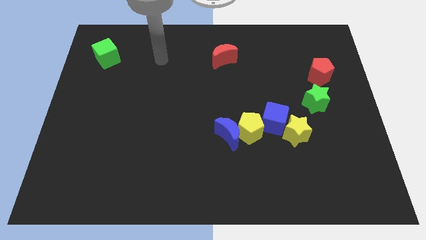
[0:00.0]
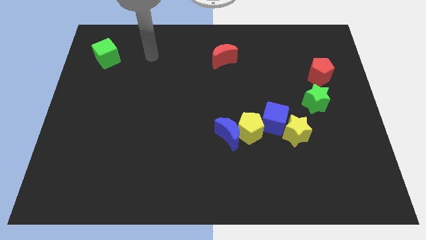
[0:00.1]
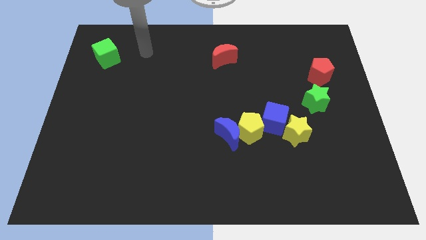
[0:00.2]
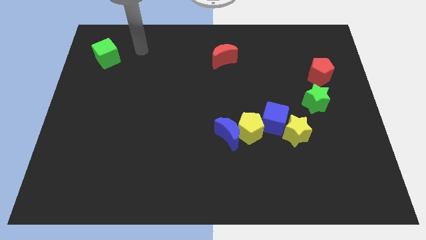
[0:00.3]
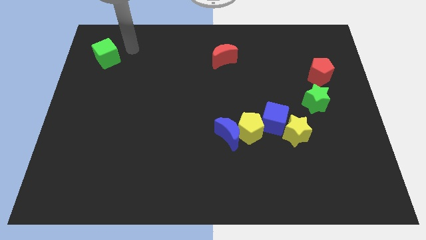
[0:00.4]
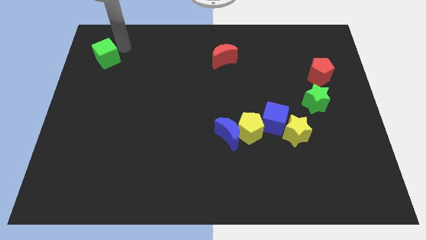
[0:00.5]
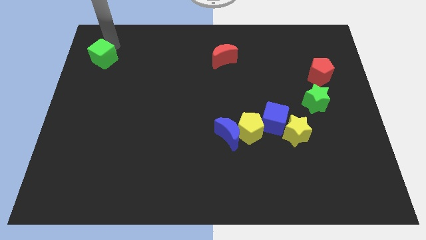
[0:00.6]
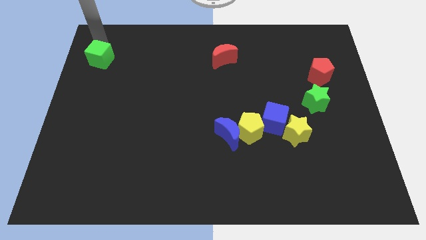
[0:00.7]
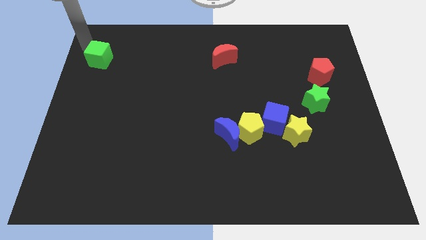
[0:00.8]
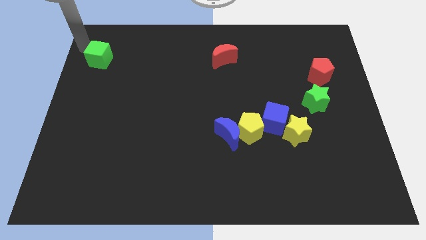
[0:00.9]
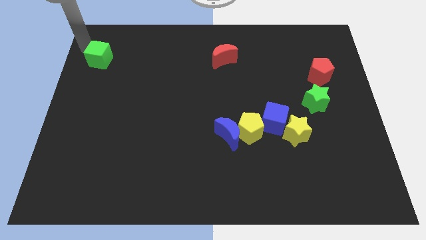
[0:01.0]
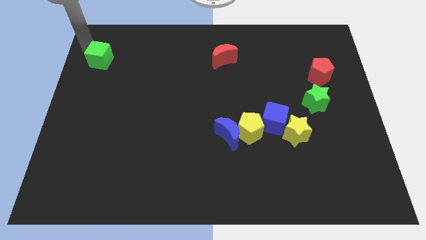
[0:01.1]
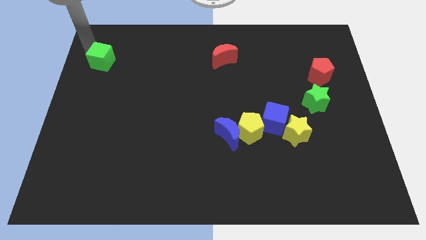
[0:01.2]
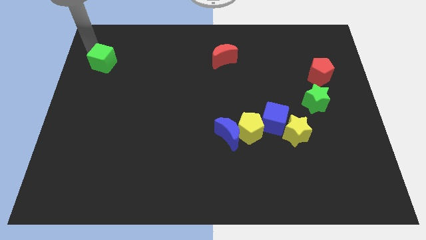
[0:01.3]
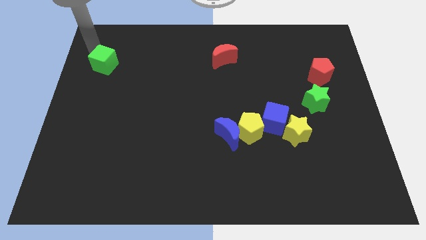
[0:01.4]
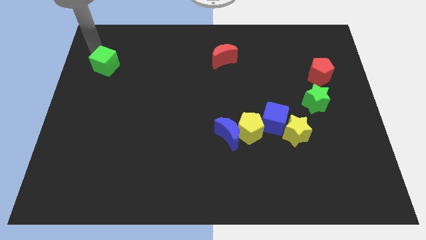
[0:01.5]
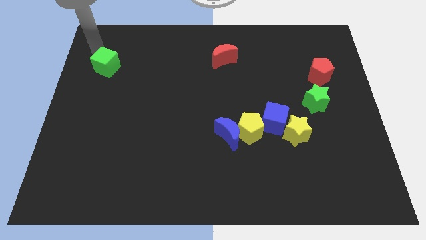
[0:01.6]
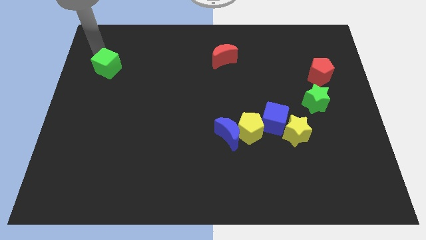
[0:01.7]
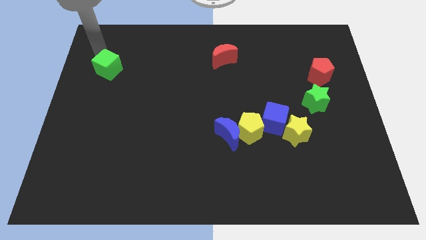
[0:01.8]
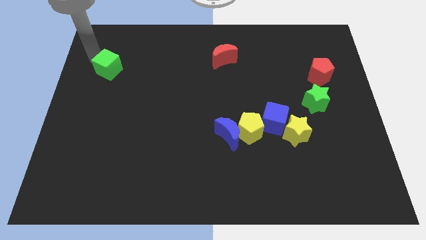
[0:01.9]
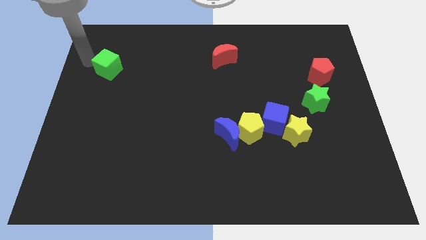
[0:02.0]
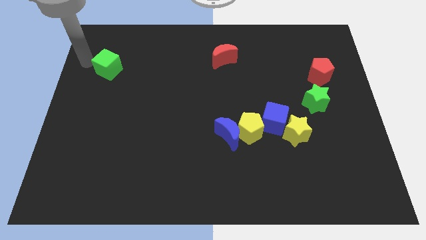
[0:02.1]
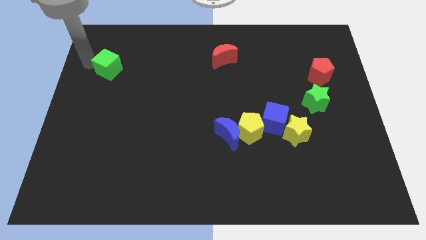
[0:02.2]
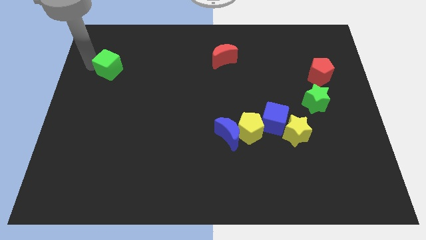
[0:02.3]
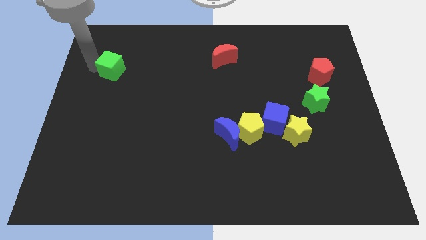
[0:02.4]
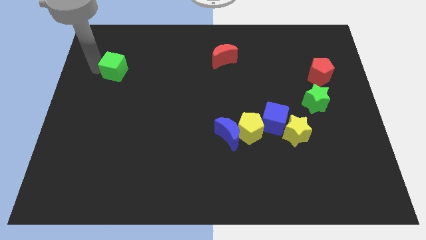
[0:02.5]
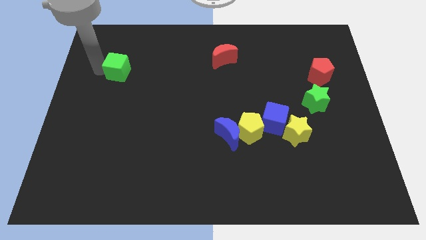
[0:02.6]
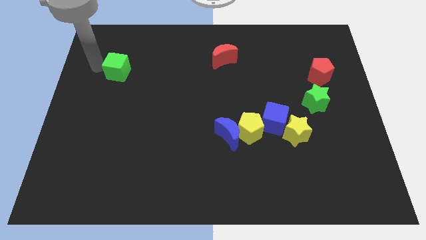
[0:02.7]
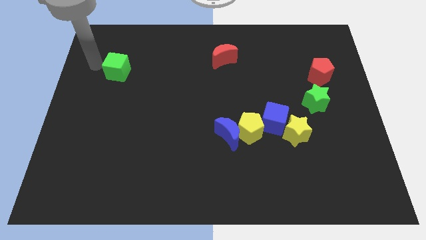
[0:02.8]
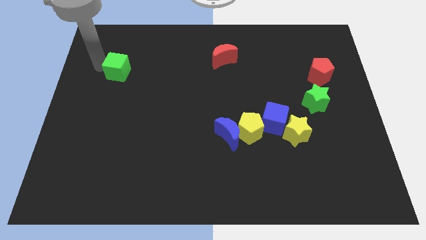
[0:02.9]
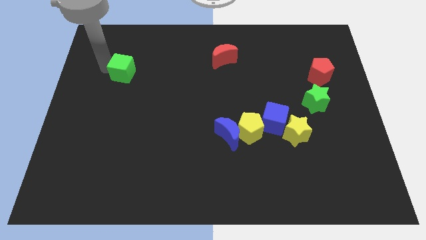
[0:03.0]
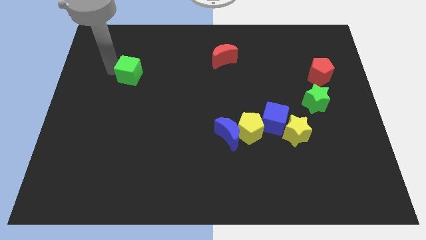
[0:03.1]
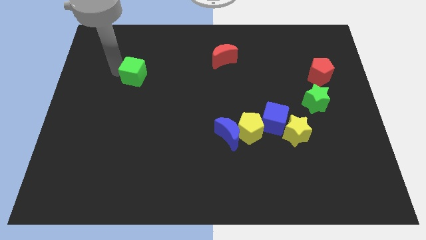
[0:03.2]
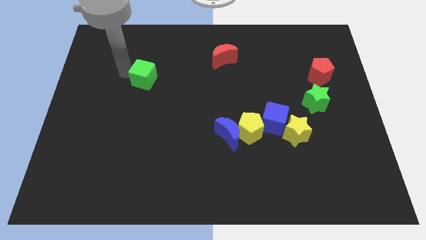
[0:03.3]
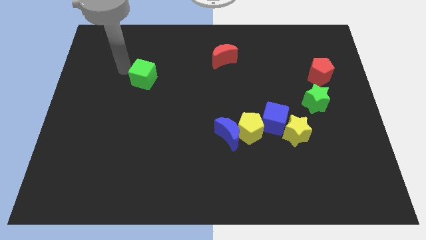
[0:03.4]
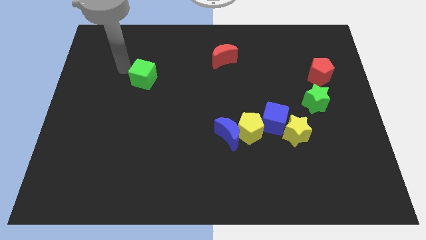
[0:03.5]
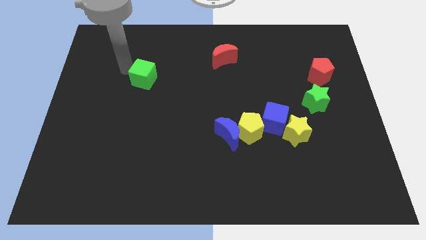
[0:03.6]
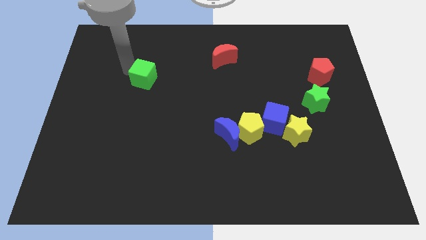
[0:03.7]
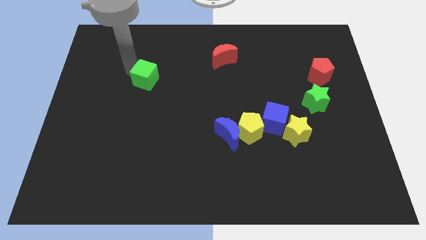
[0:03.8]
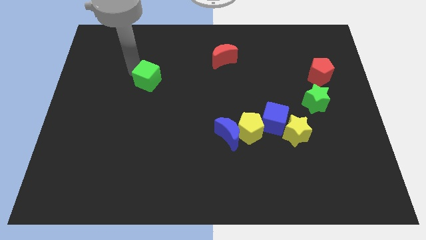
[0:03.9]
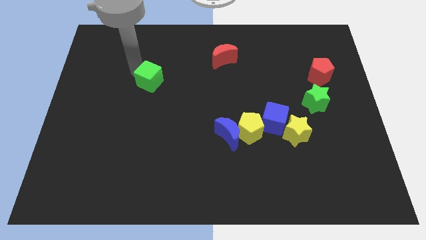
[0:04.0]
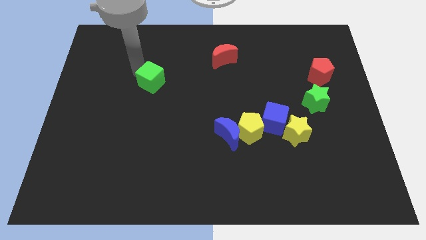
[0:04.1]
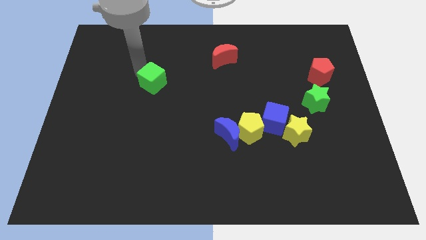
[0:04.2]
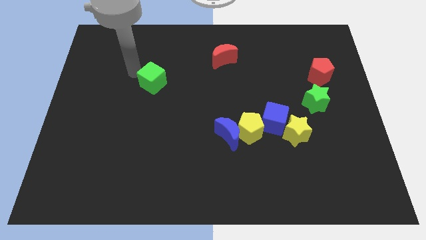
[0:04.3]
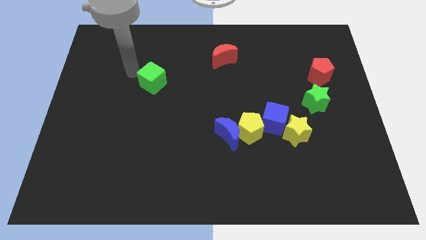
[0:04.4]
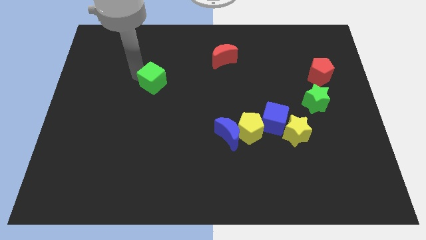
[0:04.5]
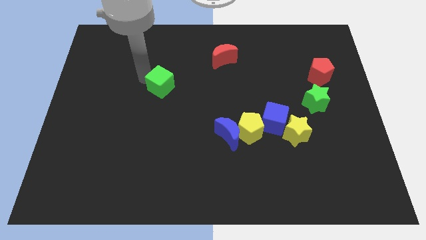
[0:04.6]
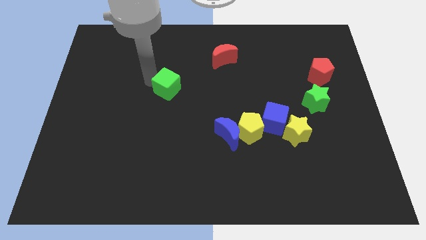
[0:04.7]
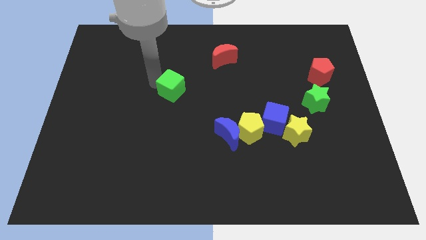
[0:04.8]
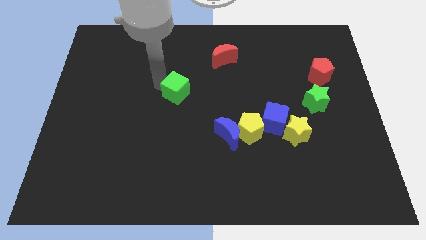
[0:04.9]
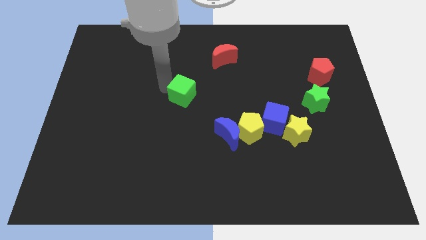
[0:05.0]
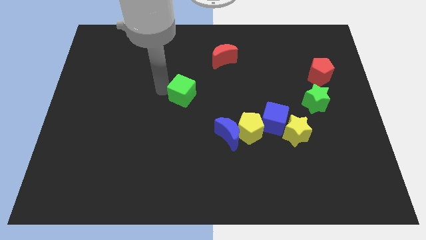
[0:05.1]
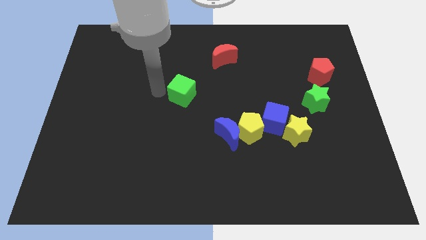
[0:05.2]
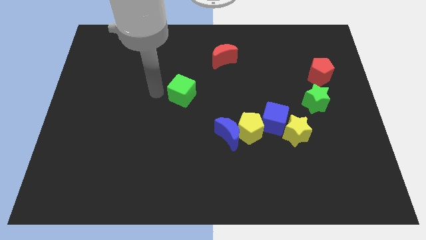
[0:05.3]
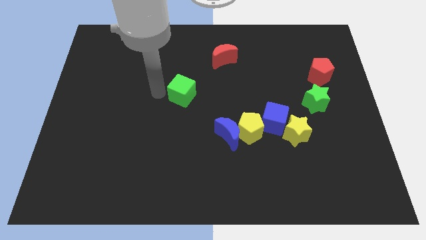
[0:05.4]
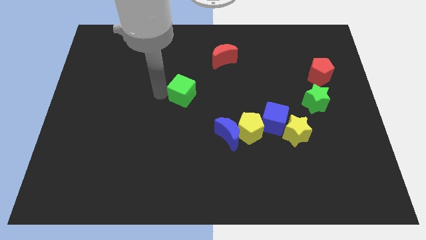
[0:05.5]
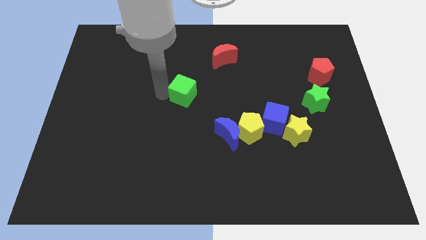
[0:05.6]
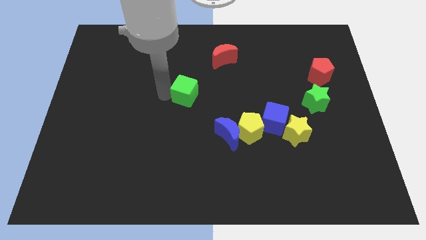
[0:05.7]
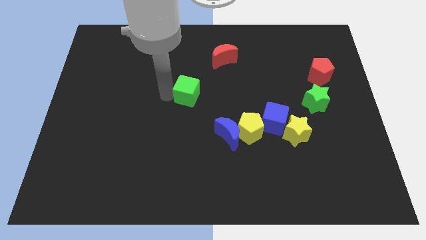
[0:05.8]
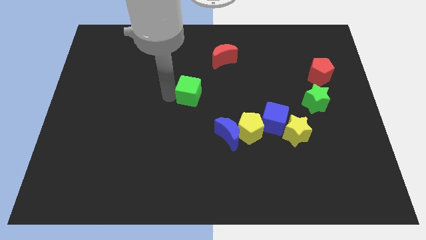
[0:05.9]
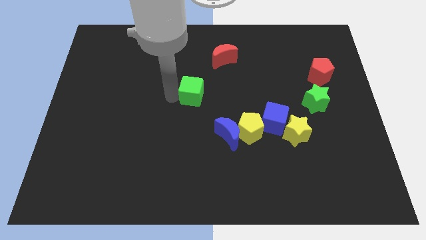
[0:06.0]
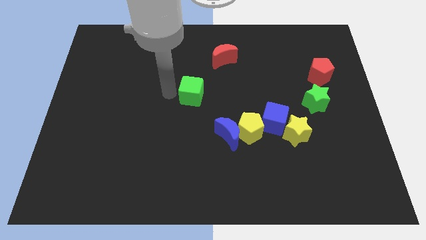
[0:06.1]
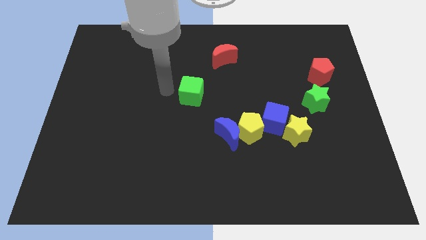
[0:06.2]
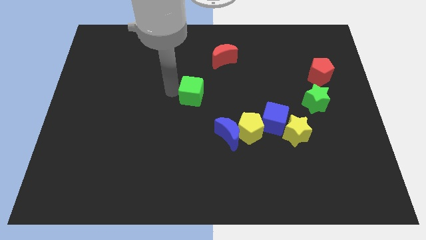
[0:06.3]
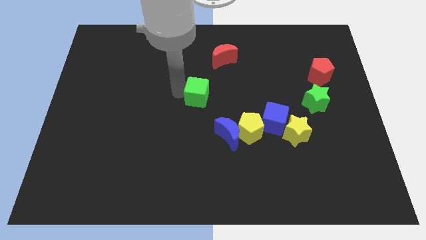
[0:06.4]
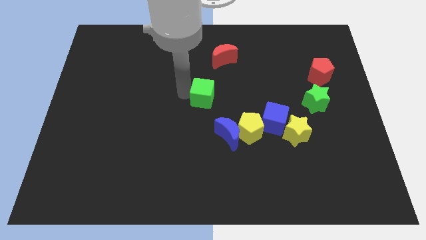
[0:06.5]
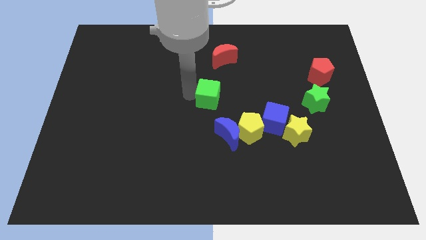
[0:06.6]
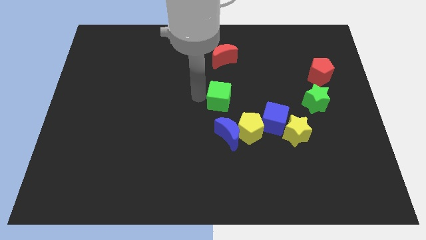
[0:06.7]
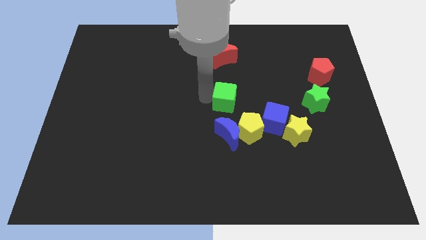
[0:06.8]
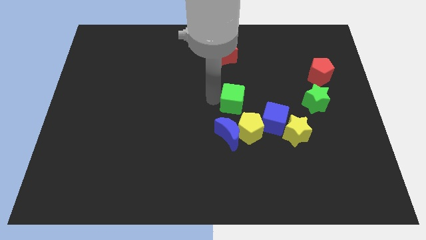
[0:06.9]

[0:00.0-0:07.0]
slide the green cube diagonally up and to the left of the blue cube
